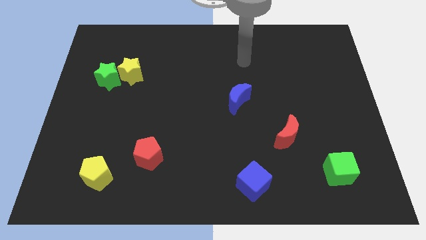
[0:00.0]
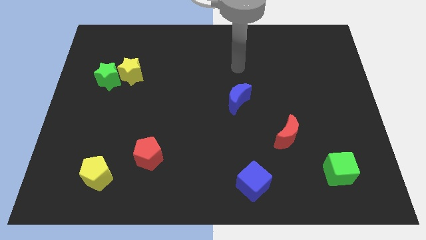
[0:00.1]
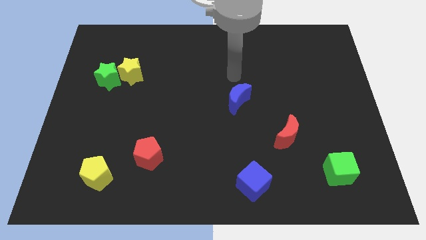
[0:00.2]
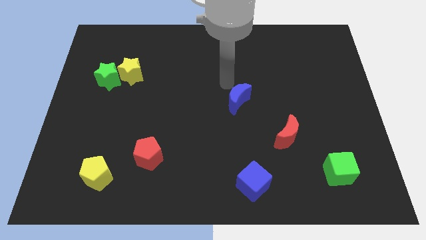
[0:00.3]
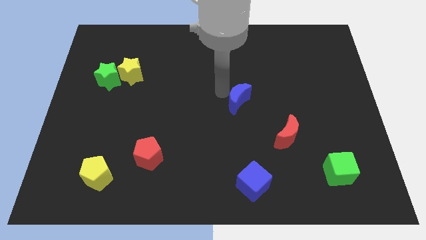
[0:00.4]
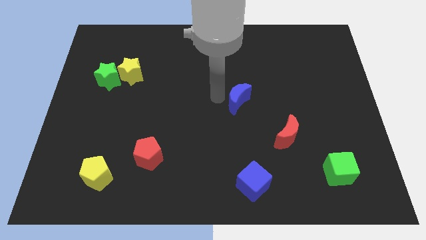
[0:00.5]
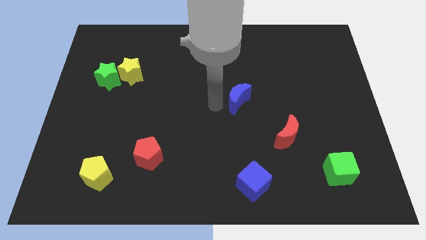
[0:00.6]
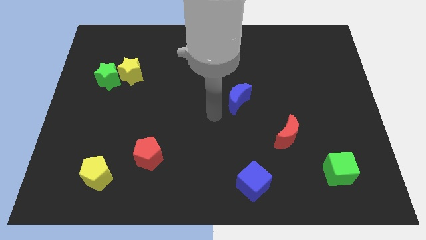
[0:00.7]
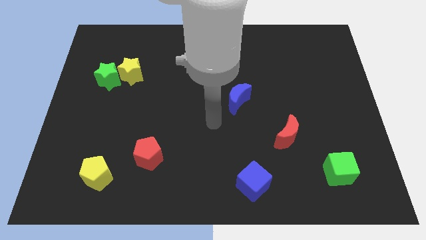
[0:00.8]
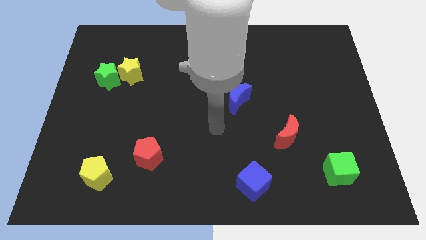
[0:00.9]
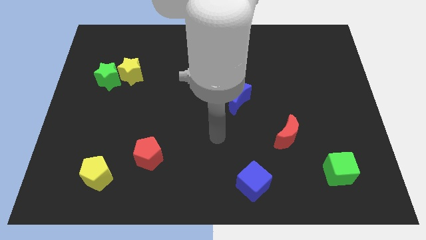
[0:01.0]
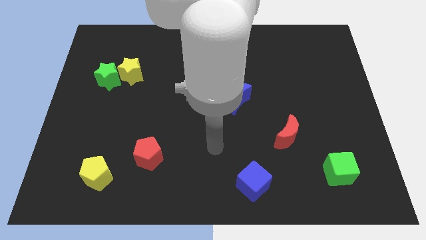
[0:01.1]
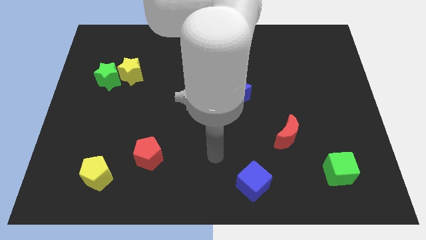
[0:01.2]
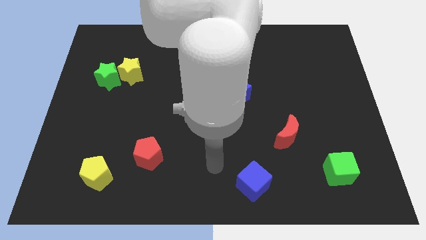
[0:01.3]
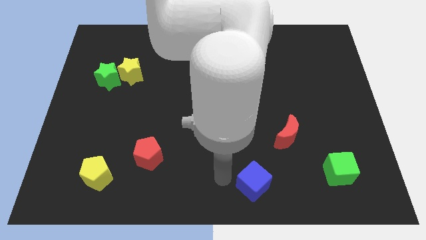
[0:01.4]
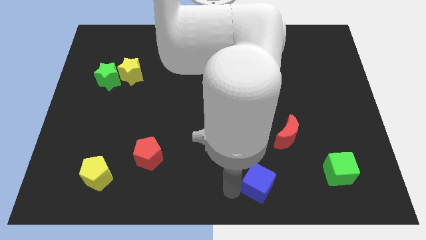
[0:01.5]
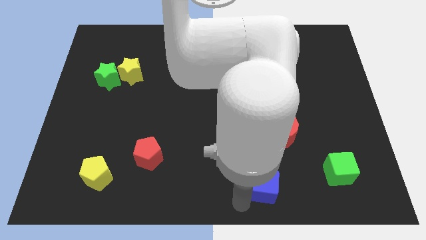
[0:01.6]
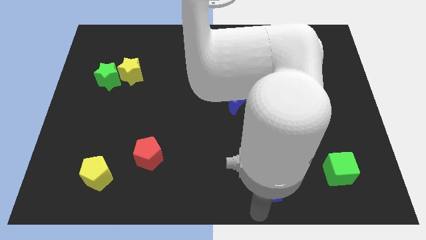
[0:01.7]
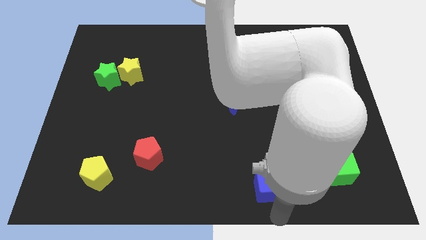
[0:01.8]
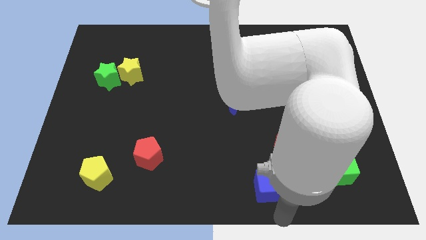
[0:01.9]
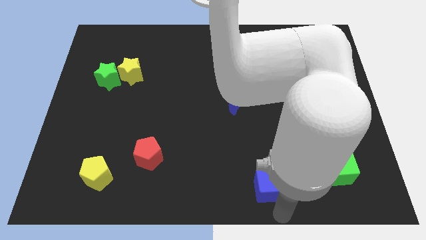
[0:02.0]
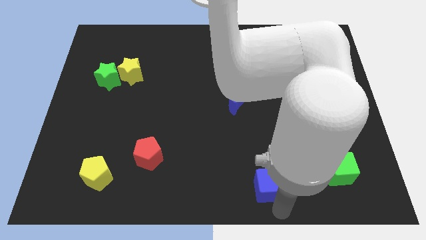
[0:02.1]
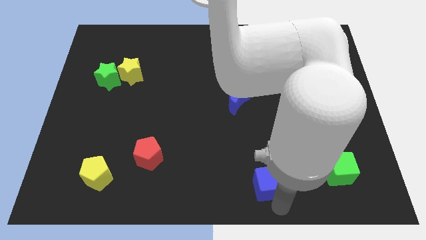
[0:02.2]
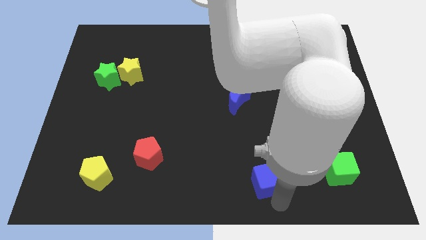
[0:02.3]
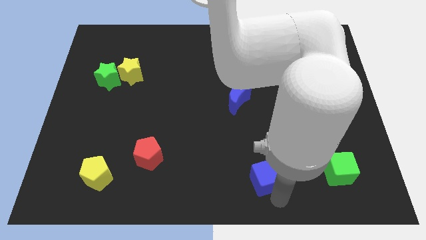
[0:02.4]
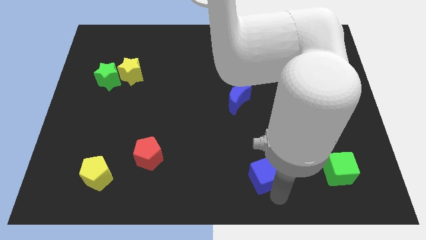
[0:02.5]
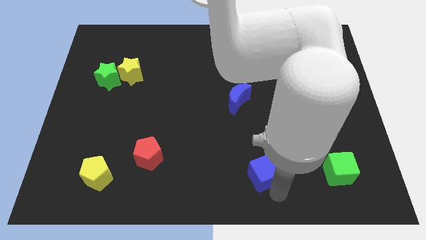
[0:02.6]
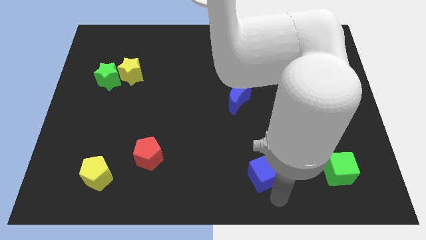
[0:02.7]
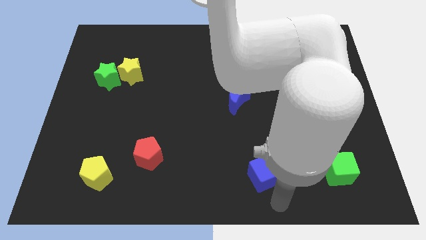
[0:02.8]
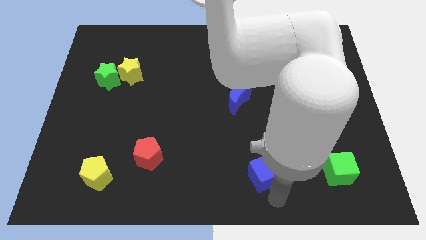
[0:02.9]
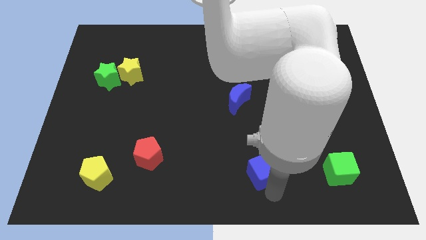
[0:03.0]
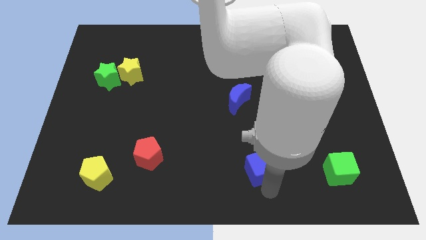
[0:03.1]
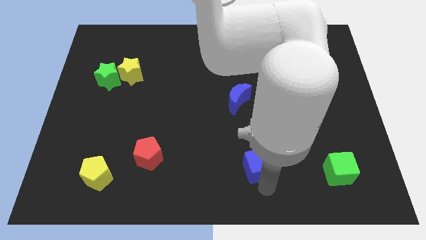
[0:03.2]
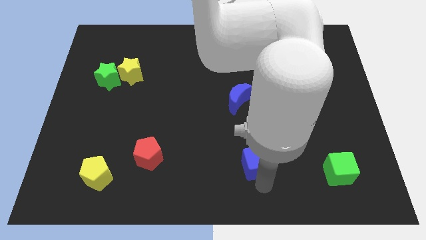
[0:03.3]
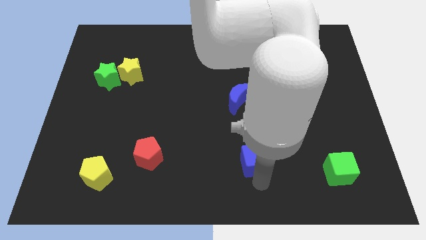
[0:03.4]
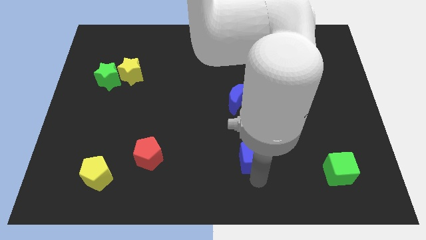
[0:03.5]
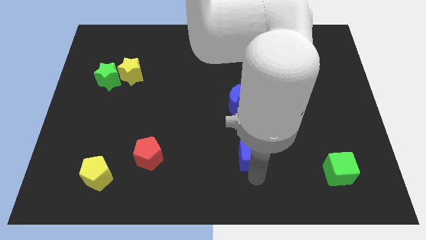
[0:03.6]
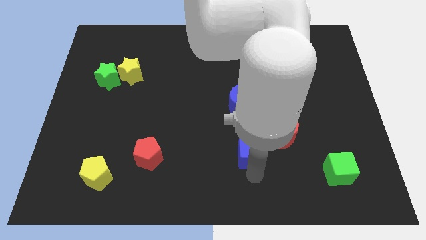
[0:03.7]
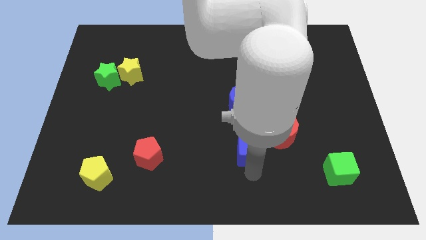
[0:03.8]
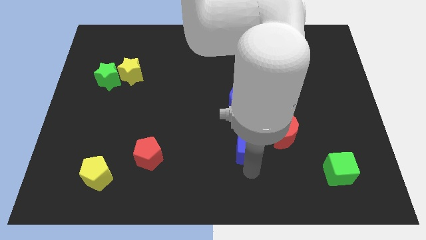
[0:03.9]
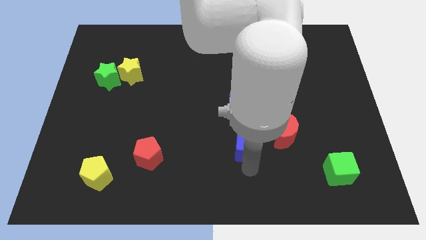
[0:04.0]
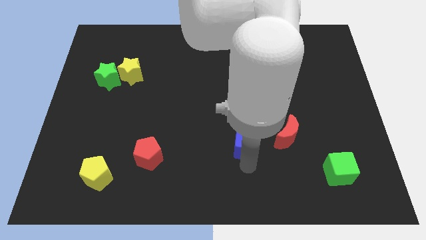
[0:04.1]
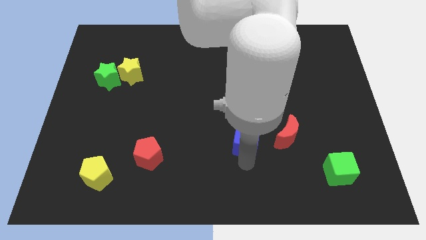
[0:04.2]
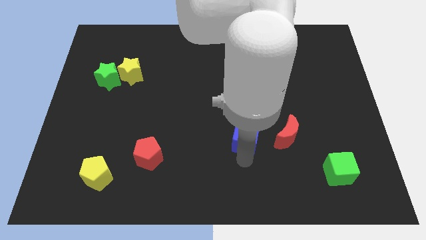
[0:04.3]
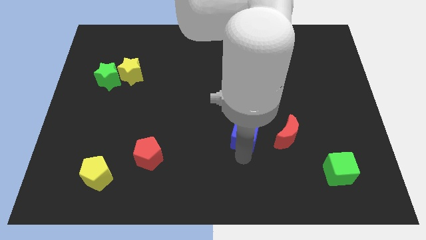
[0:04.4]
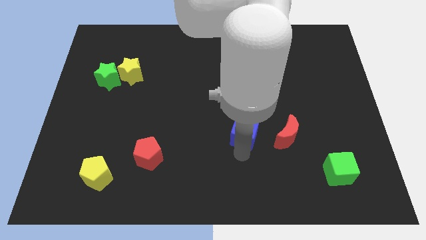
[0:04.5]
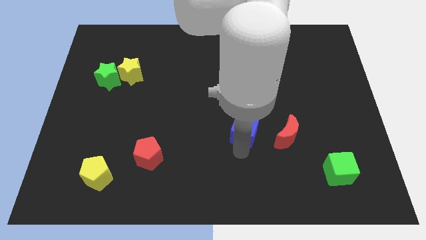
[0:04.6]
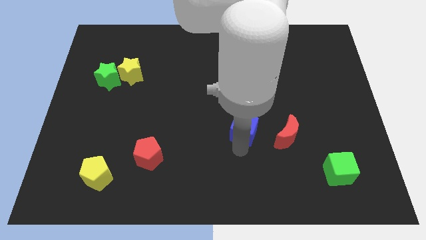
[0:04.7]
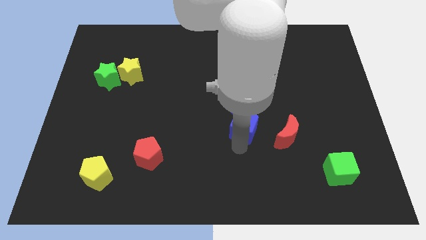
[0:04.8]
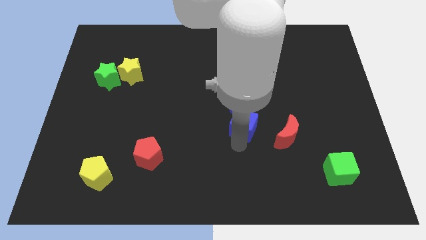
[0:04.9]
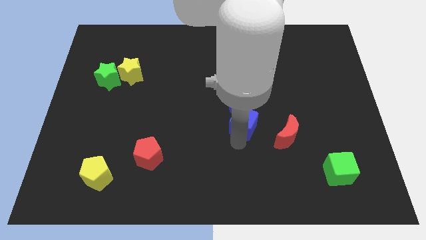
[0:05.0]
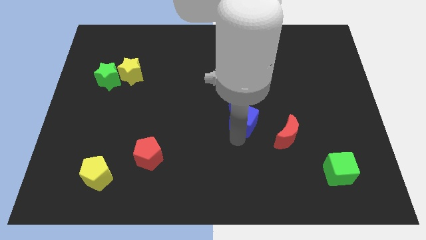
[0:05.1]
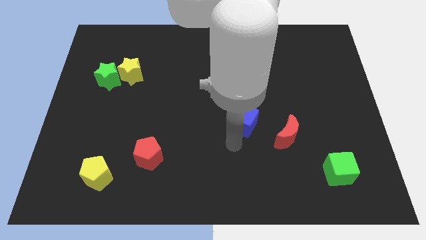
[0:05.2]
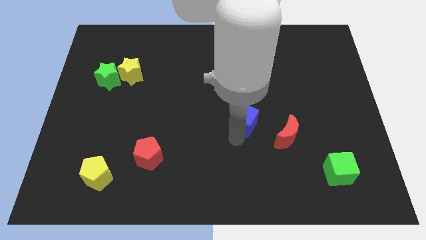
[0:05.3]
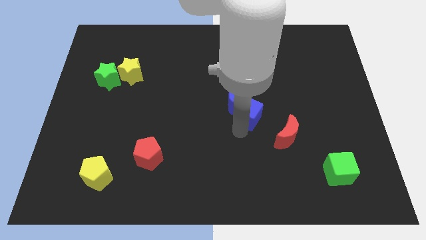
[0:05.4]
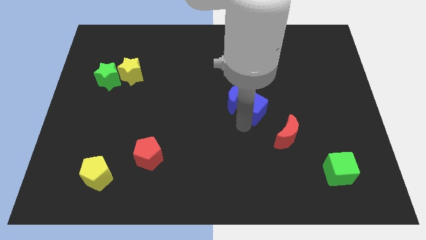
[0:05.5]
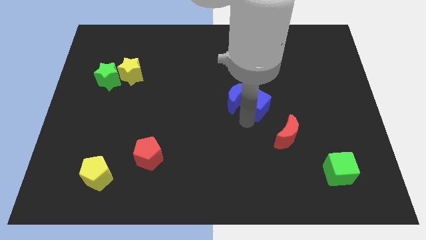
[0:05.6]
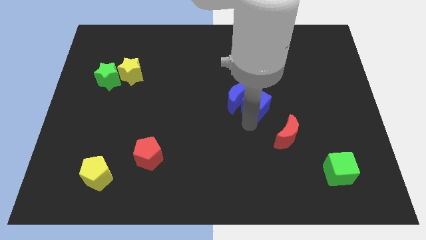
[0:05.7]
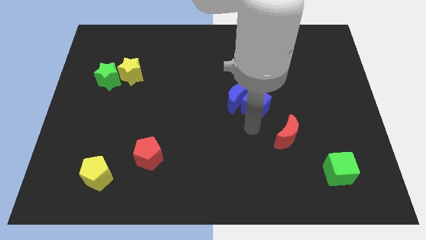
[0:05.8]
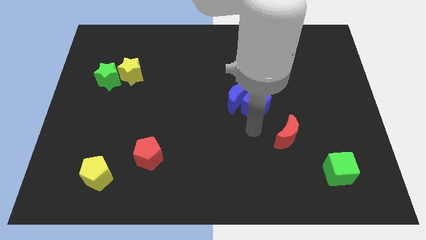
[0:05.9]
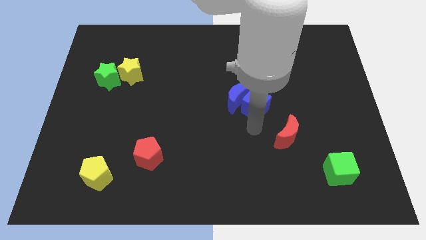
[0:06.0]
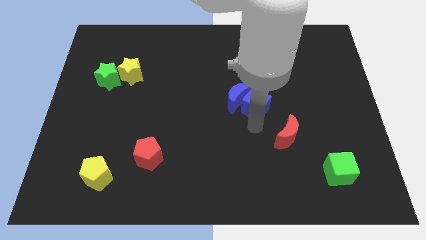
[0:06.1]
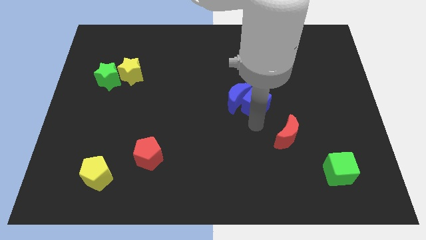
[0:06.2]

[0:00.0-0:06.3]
push the blue cube up

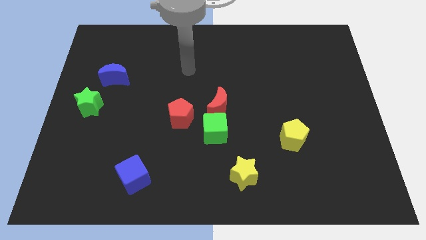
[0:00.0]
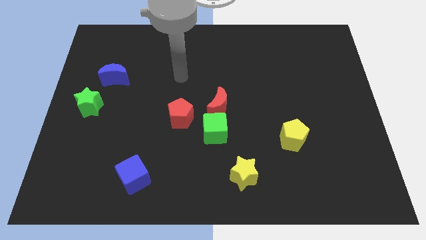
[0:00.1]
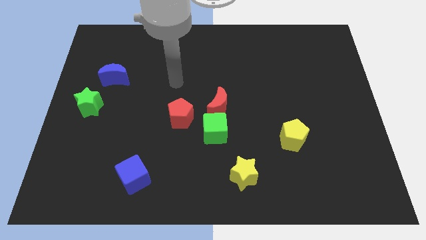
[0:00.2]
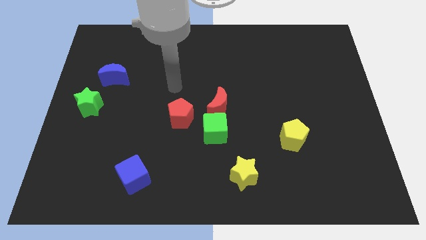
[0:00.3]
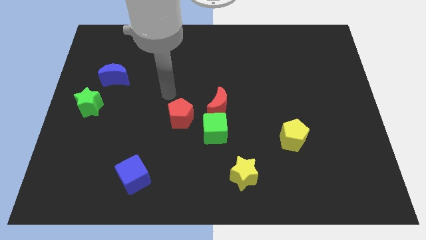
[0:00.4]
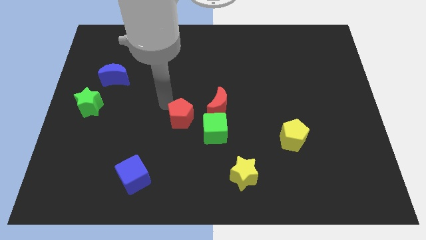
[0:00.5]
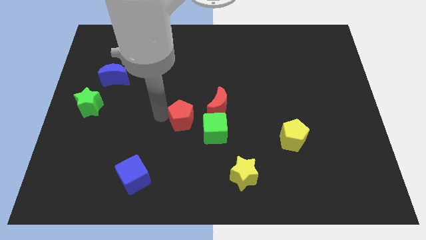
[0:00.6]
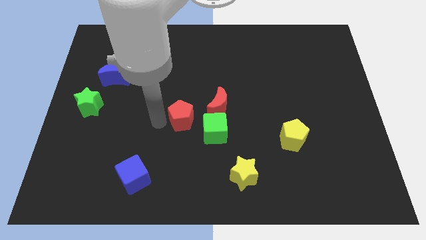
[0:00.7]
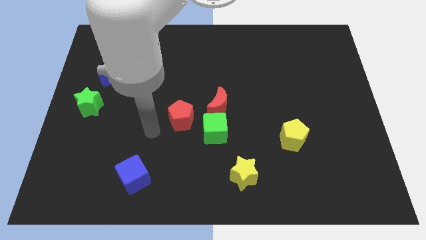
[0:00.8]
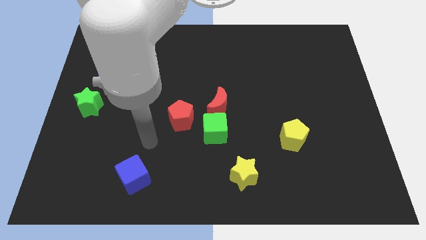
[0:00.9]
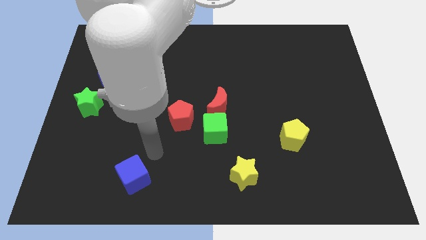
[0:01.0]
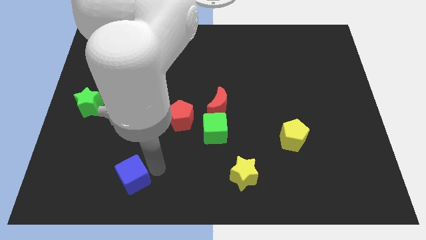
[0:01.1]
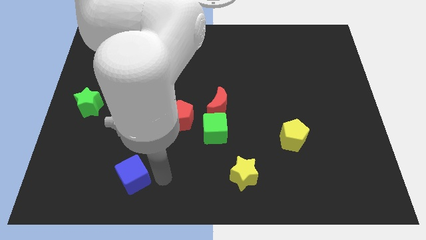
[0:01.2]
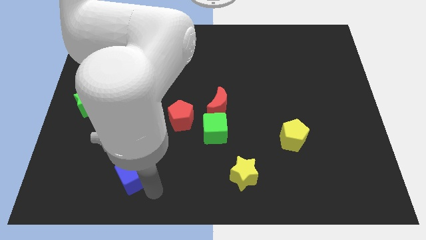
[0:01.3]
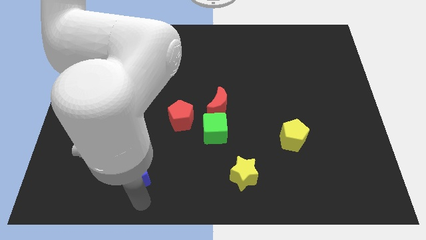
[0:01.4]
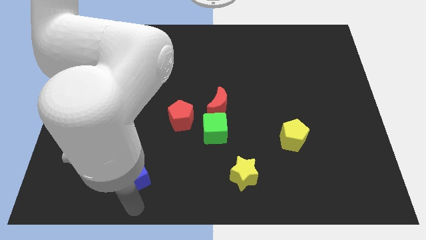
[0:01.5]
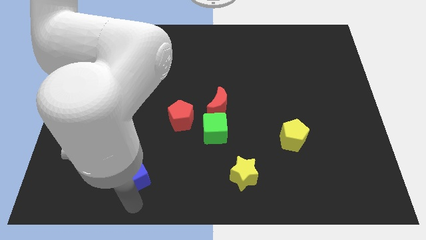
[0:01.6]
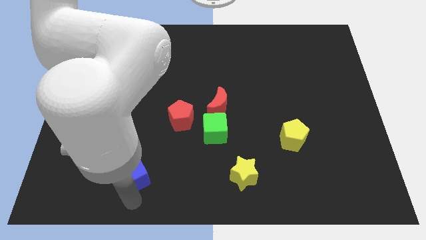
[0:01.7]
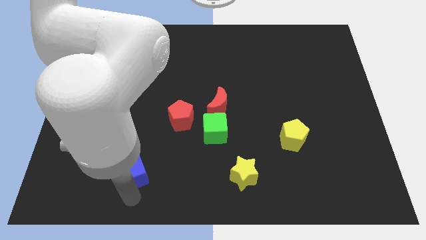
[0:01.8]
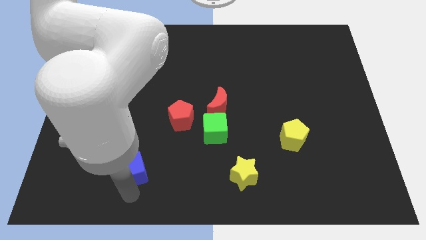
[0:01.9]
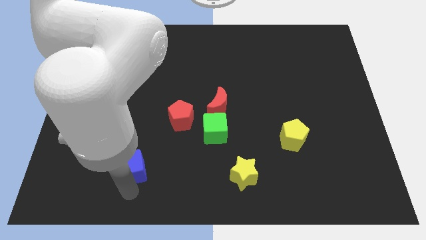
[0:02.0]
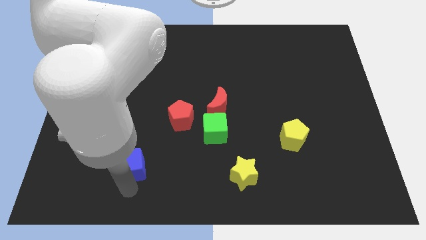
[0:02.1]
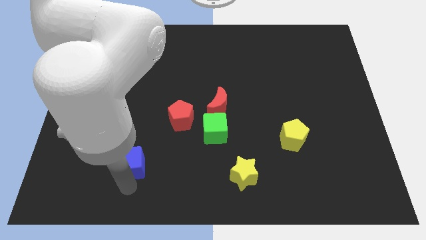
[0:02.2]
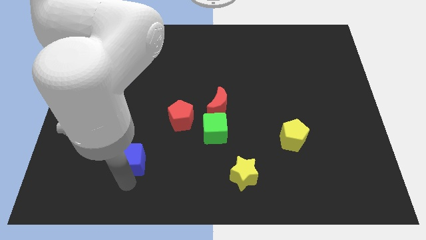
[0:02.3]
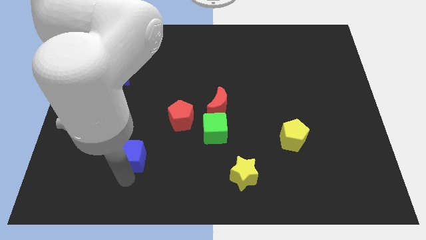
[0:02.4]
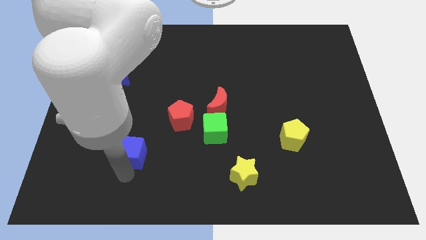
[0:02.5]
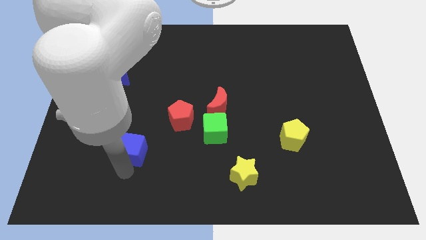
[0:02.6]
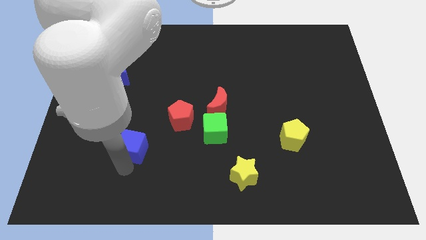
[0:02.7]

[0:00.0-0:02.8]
slide the blue cube up slightly
